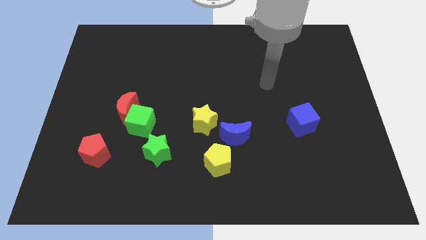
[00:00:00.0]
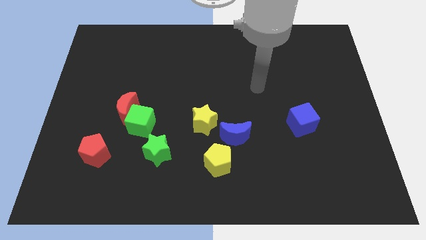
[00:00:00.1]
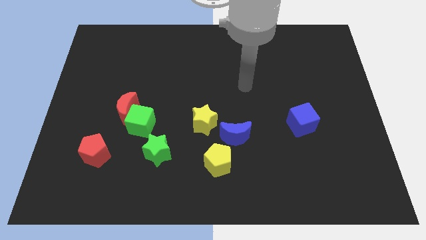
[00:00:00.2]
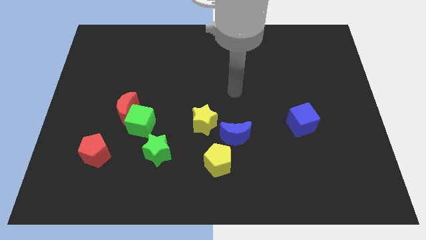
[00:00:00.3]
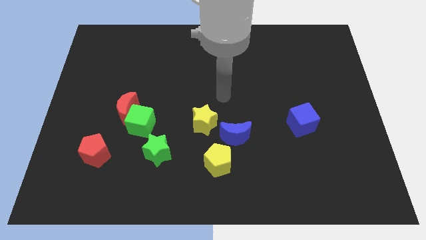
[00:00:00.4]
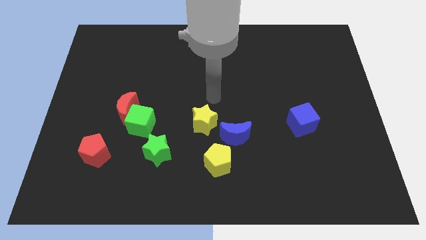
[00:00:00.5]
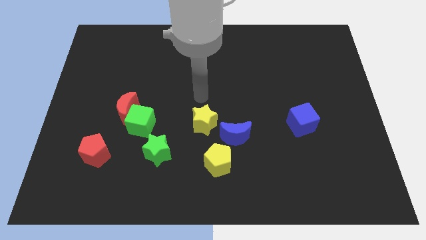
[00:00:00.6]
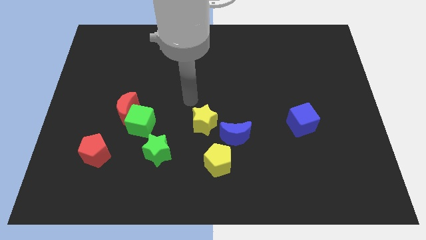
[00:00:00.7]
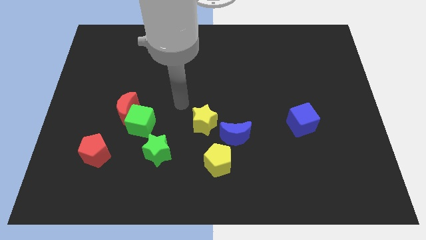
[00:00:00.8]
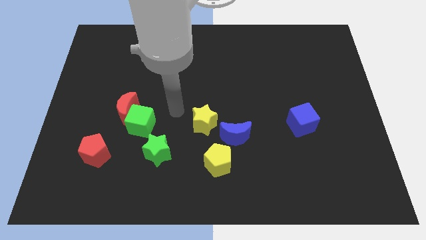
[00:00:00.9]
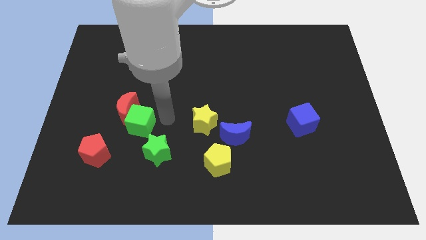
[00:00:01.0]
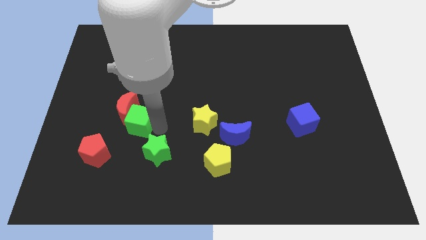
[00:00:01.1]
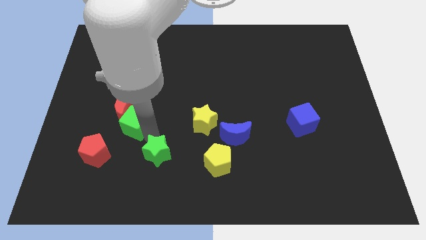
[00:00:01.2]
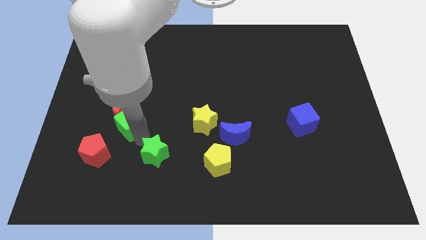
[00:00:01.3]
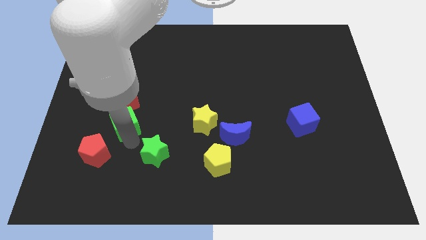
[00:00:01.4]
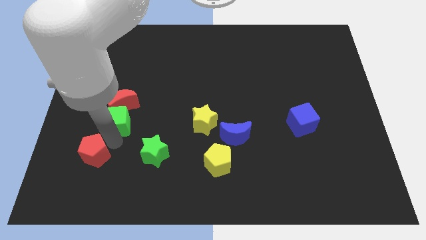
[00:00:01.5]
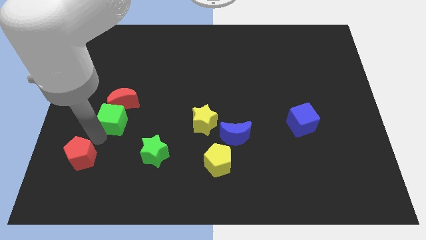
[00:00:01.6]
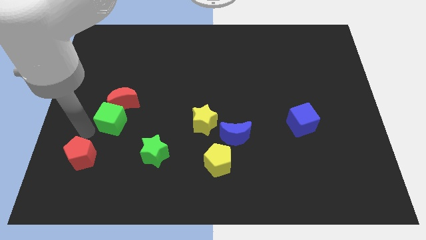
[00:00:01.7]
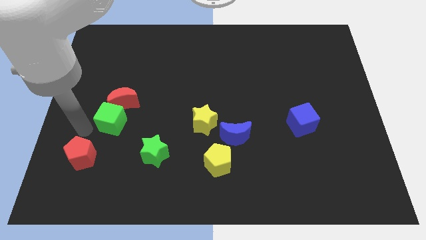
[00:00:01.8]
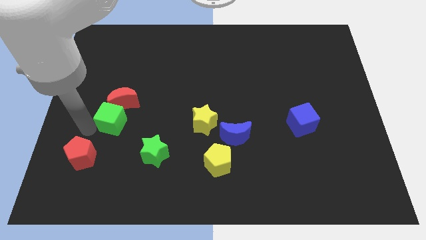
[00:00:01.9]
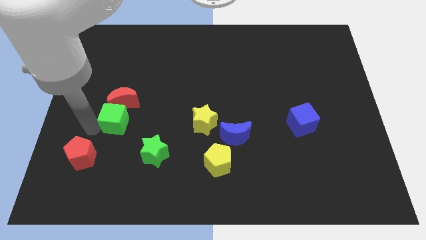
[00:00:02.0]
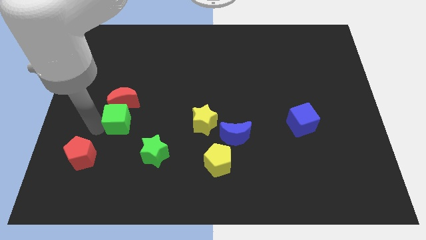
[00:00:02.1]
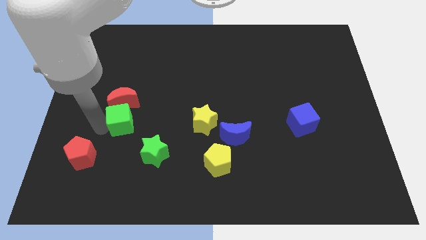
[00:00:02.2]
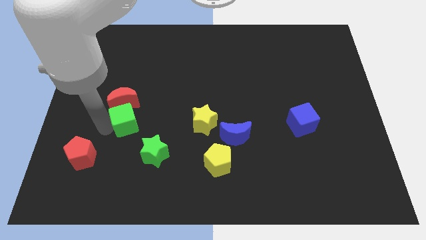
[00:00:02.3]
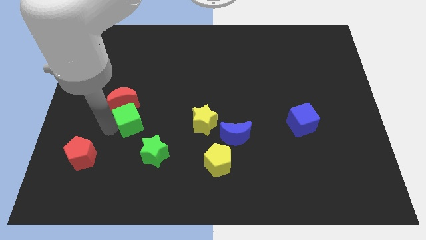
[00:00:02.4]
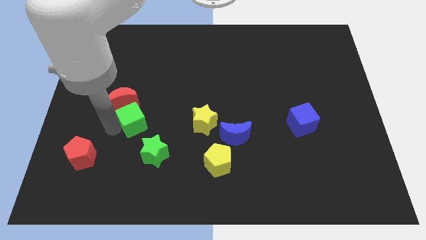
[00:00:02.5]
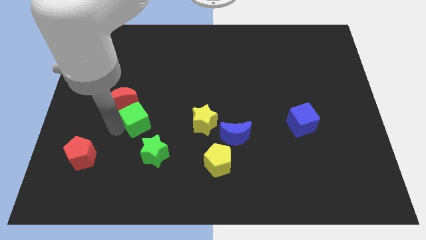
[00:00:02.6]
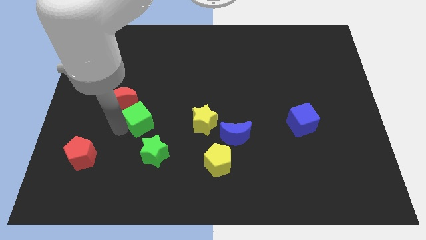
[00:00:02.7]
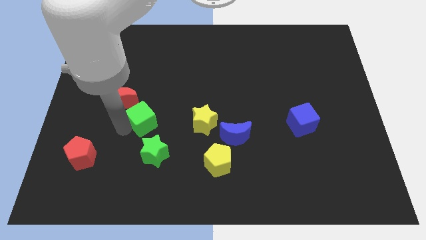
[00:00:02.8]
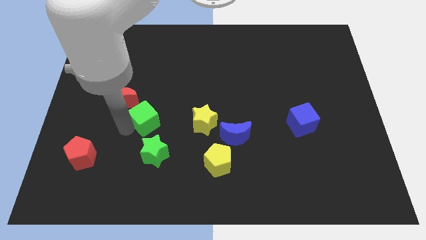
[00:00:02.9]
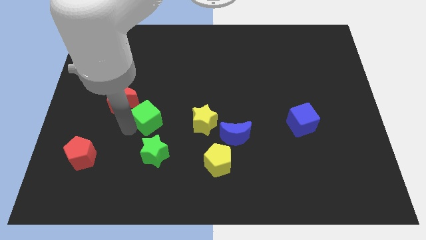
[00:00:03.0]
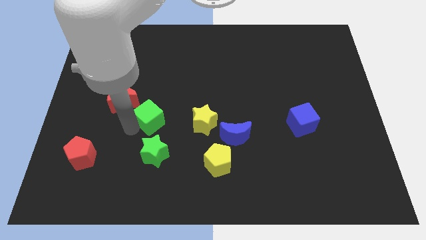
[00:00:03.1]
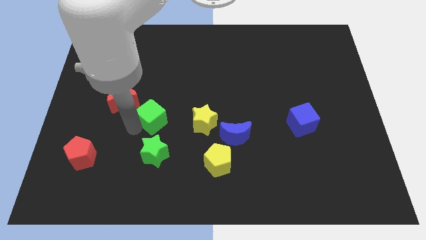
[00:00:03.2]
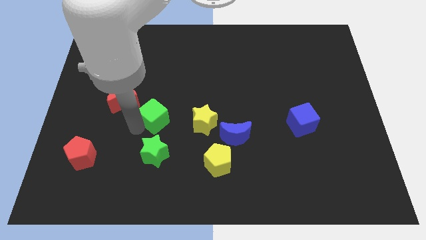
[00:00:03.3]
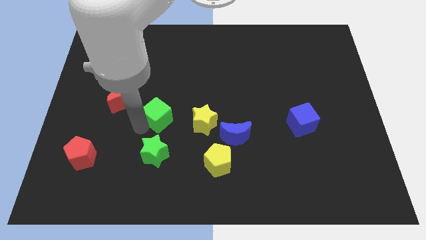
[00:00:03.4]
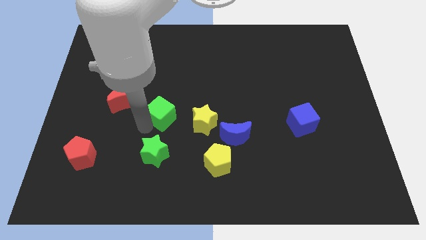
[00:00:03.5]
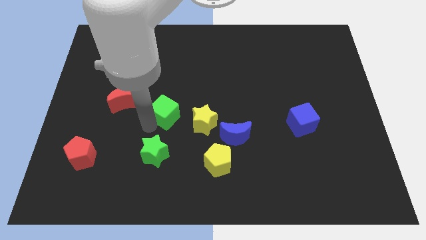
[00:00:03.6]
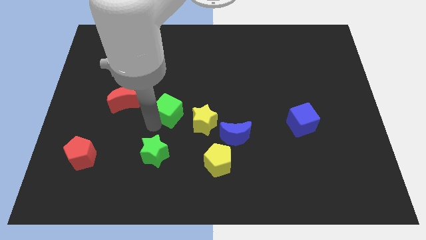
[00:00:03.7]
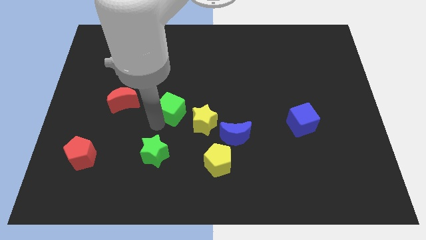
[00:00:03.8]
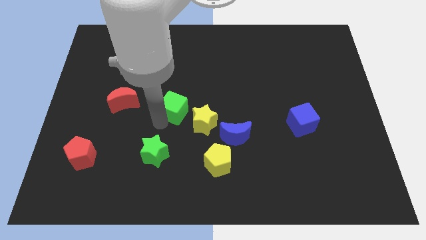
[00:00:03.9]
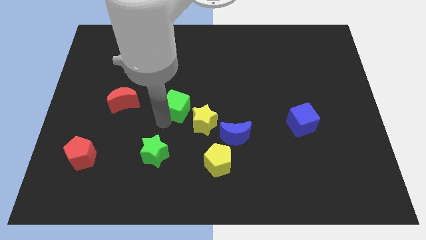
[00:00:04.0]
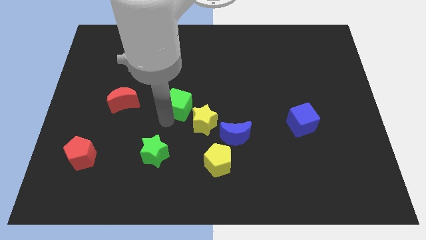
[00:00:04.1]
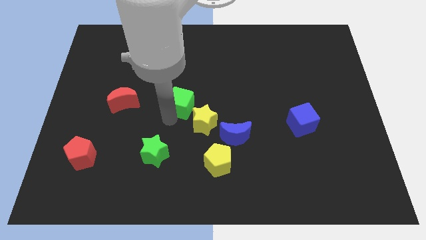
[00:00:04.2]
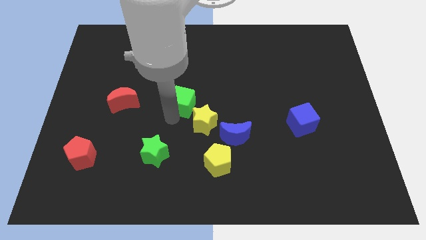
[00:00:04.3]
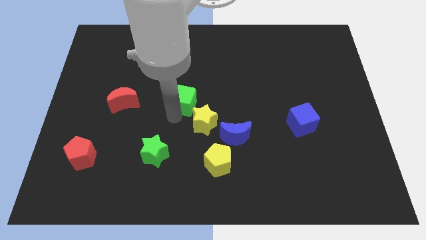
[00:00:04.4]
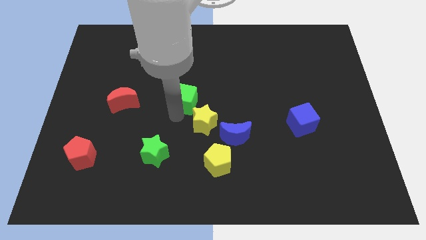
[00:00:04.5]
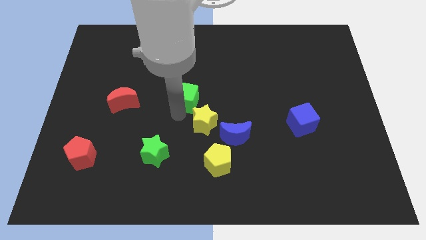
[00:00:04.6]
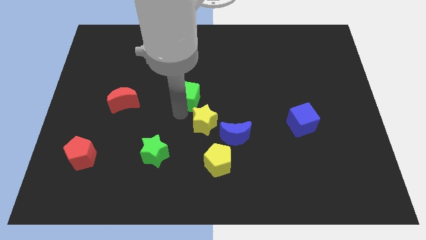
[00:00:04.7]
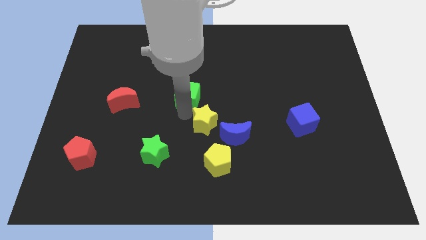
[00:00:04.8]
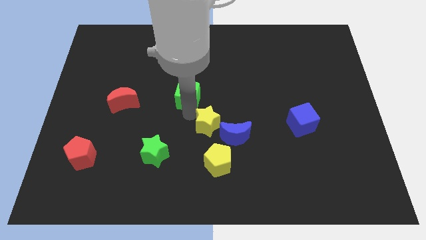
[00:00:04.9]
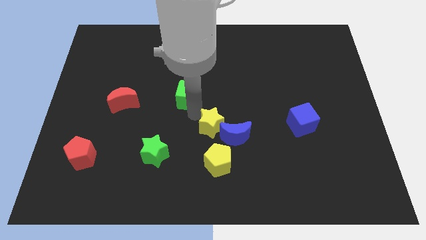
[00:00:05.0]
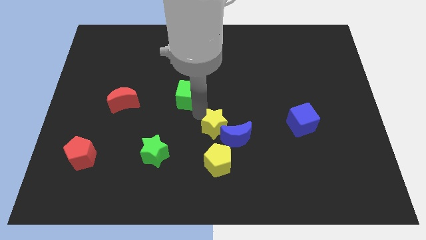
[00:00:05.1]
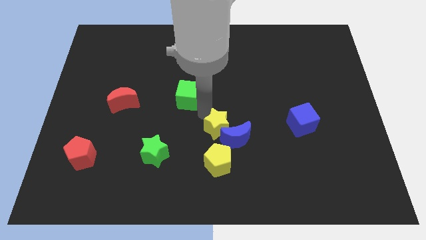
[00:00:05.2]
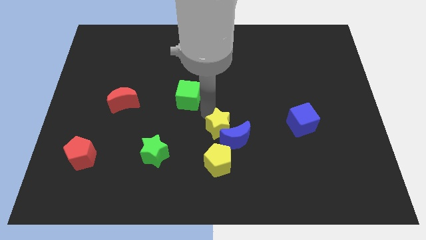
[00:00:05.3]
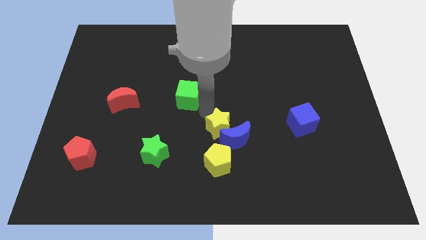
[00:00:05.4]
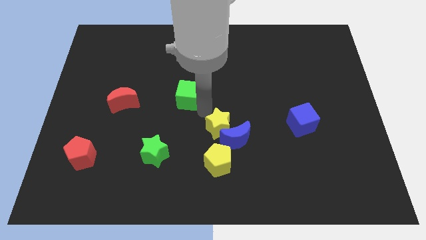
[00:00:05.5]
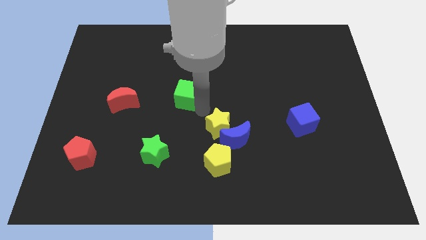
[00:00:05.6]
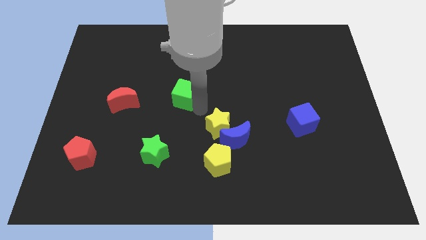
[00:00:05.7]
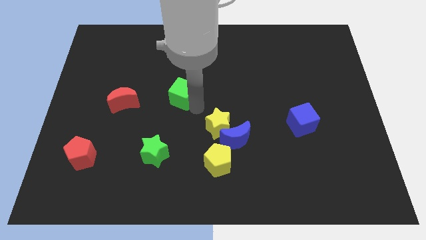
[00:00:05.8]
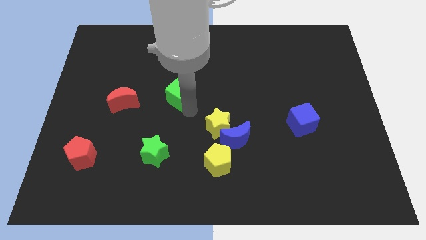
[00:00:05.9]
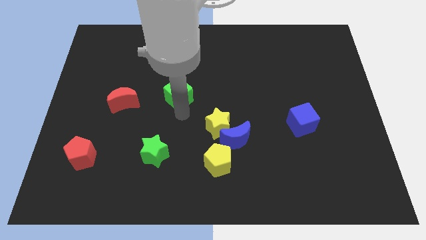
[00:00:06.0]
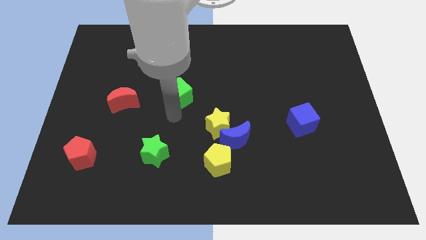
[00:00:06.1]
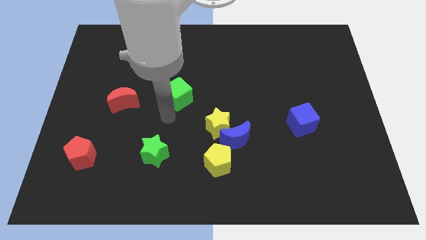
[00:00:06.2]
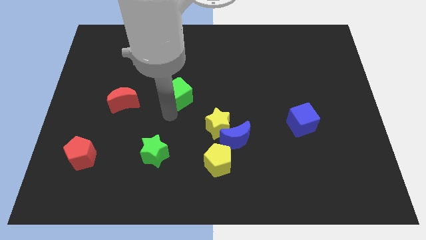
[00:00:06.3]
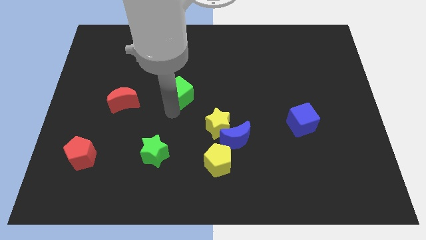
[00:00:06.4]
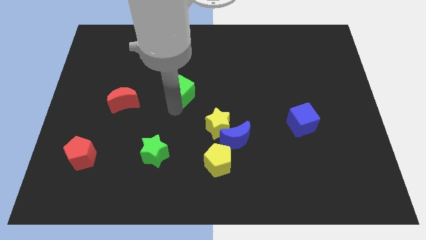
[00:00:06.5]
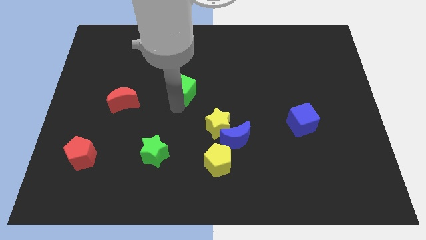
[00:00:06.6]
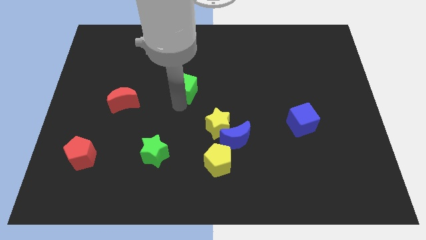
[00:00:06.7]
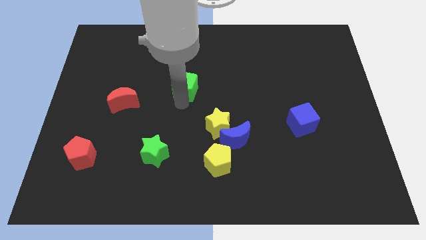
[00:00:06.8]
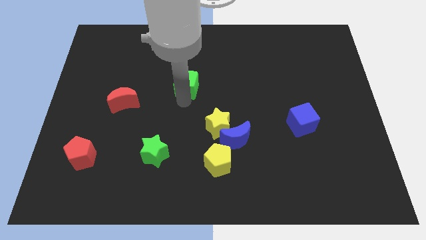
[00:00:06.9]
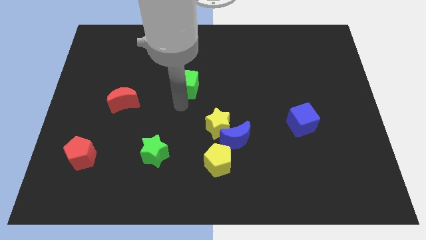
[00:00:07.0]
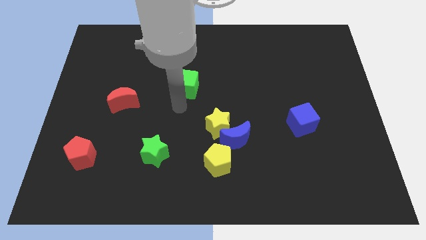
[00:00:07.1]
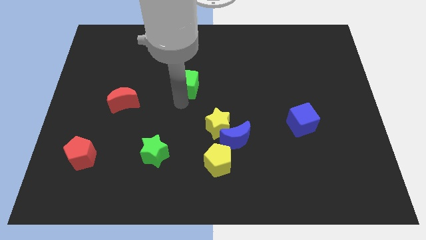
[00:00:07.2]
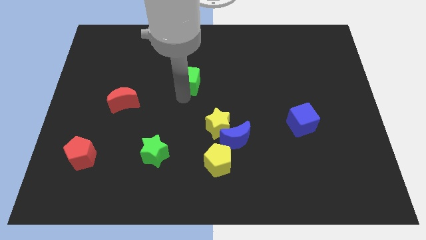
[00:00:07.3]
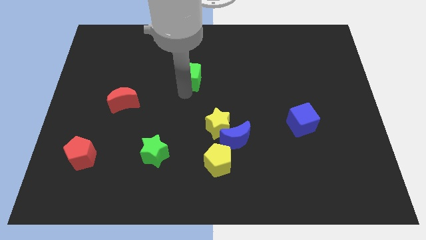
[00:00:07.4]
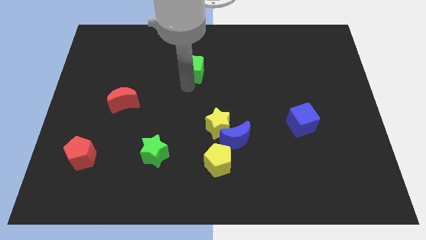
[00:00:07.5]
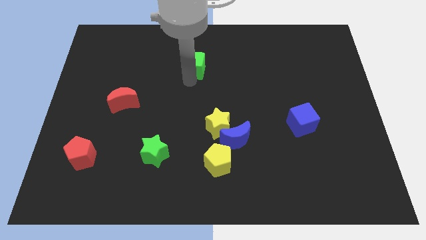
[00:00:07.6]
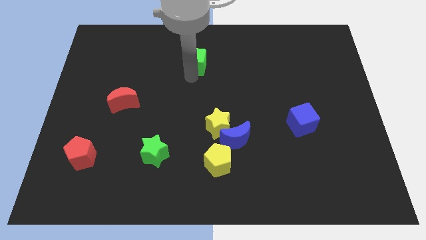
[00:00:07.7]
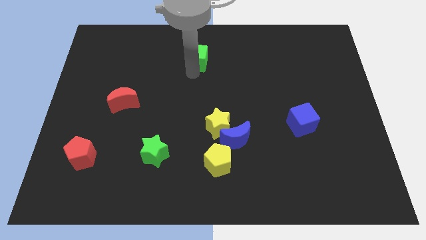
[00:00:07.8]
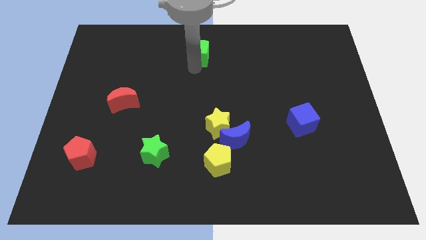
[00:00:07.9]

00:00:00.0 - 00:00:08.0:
put the green cube to the towards your base
